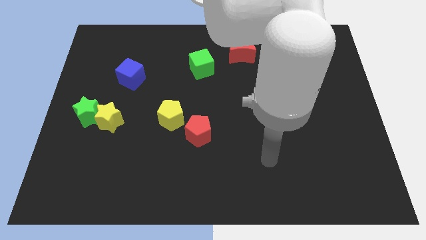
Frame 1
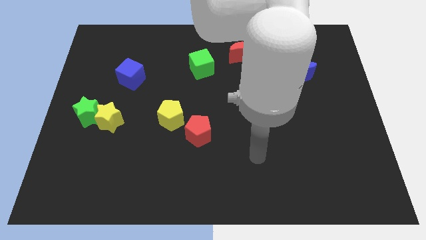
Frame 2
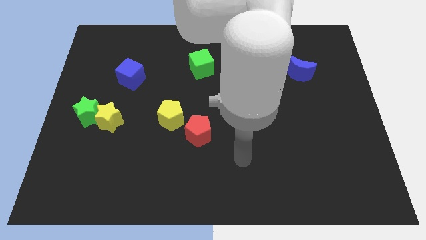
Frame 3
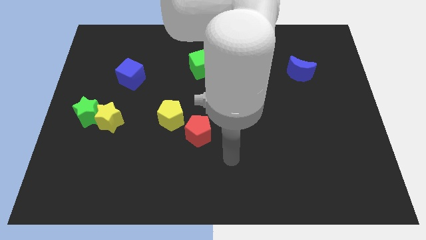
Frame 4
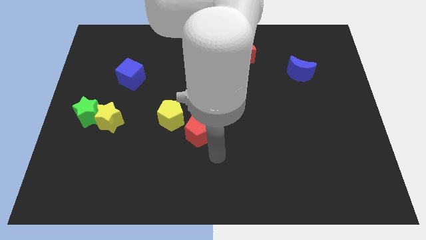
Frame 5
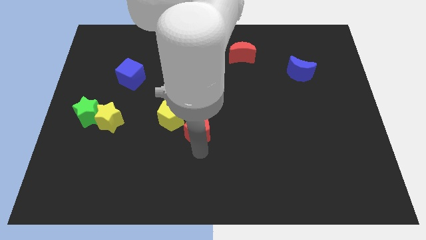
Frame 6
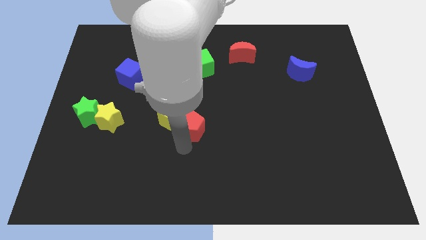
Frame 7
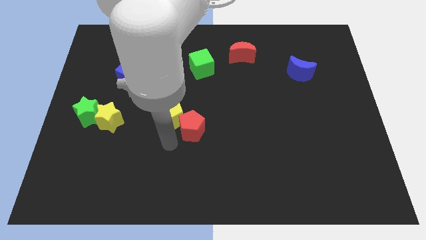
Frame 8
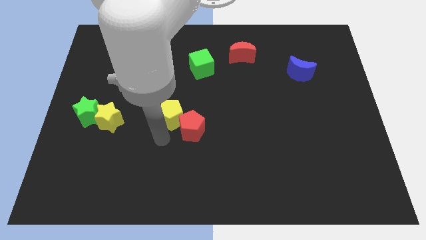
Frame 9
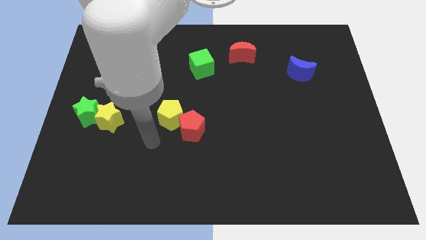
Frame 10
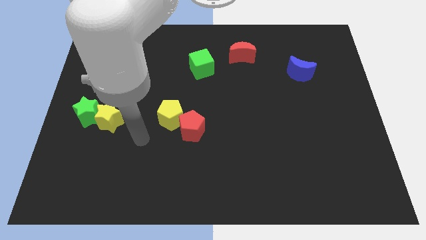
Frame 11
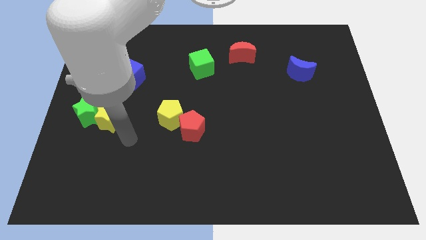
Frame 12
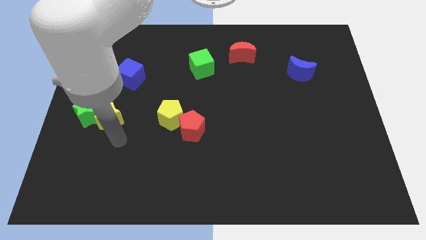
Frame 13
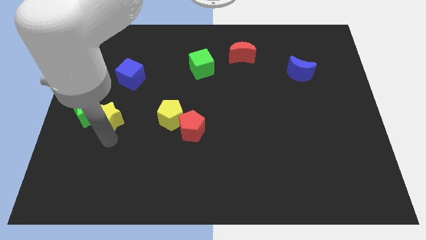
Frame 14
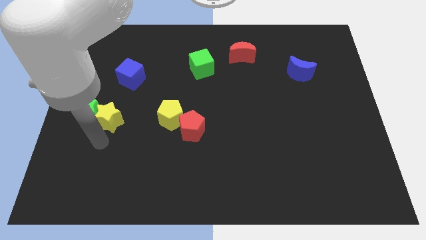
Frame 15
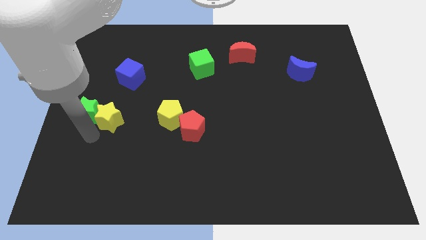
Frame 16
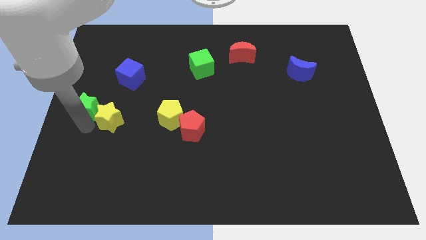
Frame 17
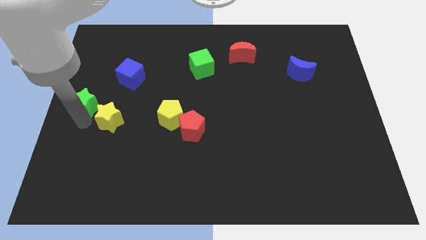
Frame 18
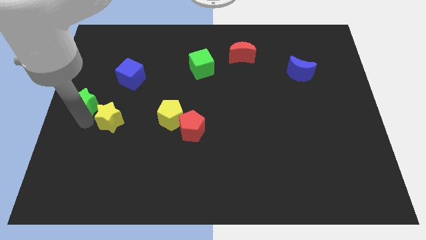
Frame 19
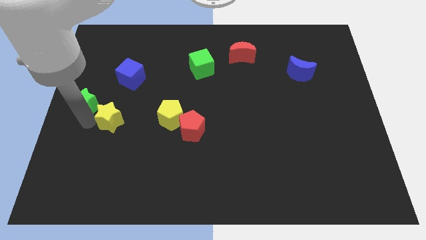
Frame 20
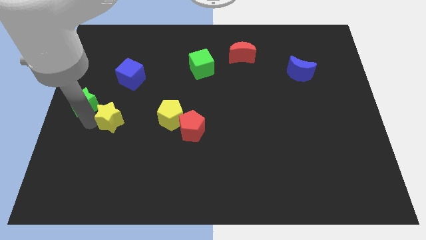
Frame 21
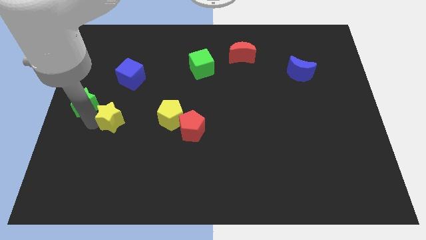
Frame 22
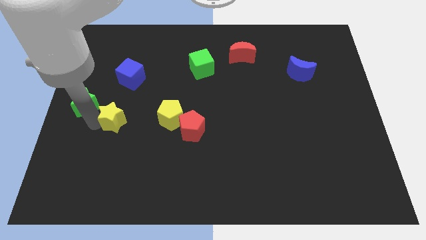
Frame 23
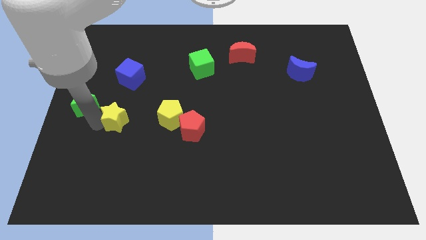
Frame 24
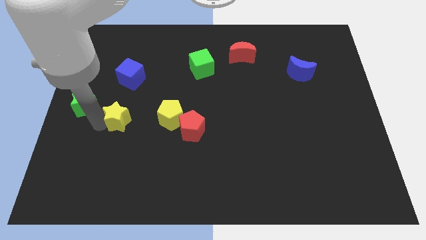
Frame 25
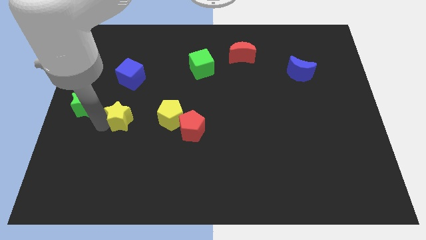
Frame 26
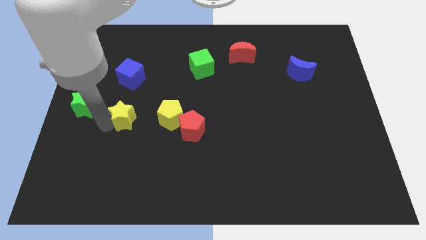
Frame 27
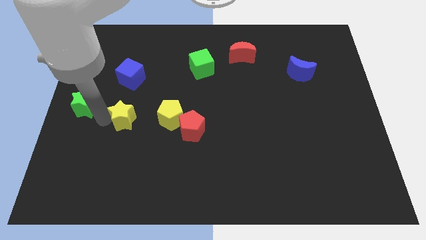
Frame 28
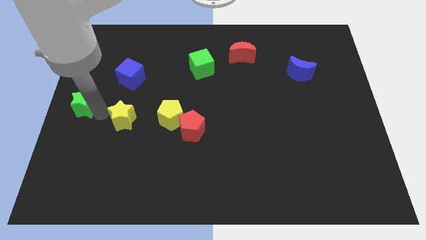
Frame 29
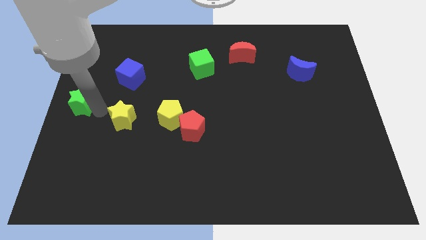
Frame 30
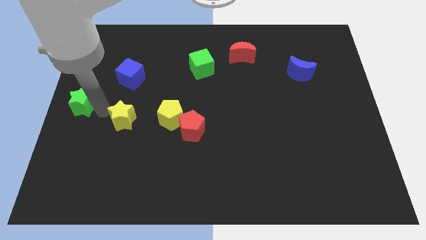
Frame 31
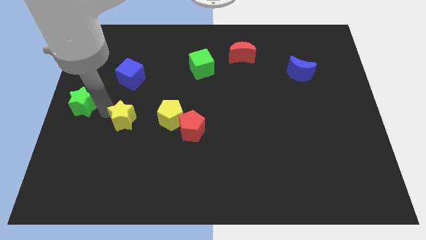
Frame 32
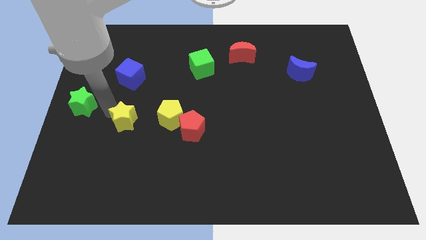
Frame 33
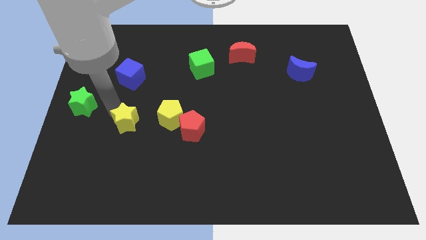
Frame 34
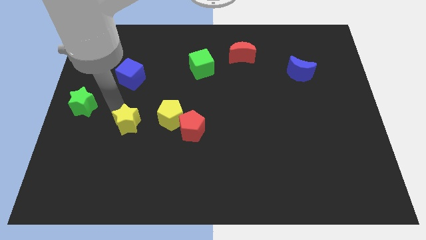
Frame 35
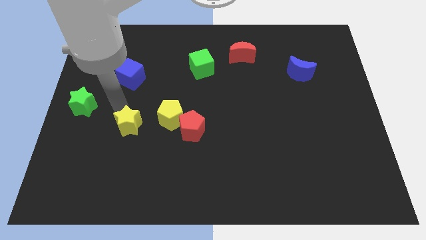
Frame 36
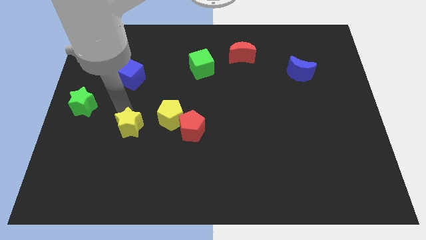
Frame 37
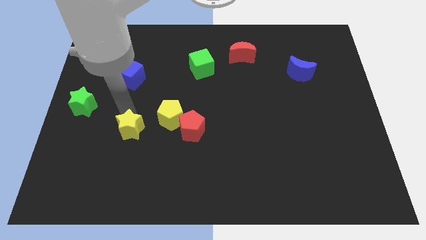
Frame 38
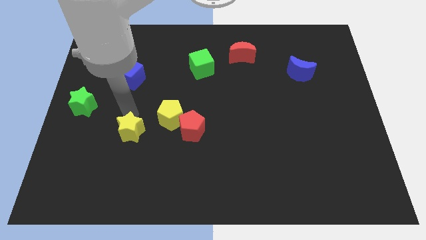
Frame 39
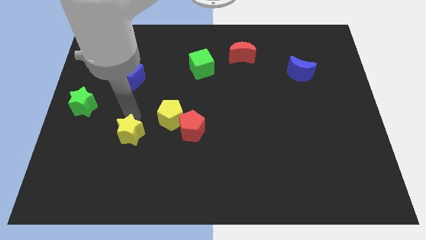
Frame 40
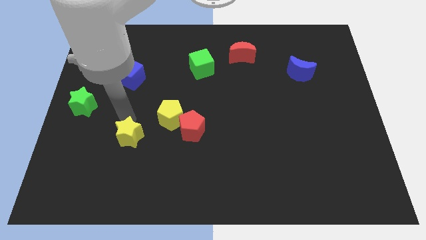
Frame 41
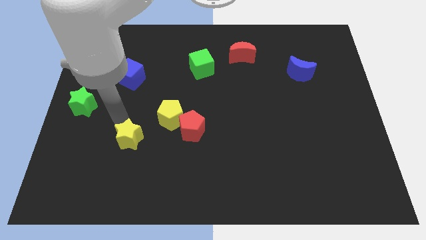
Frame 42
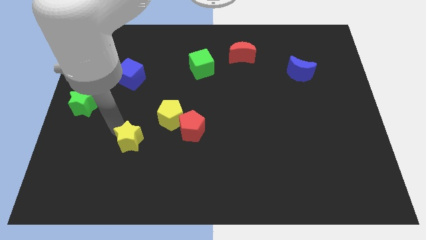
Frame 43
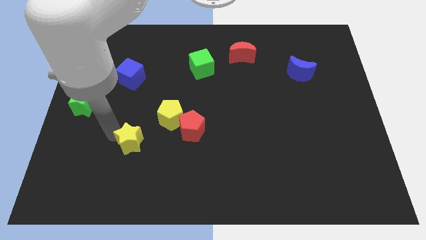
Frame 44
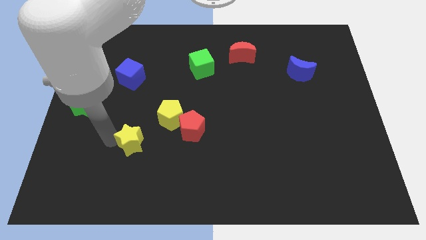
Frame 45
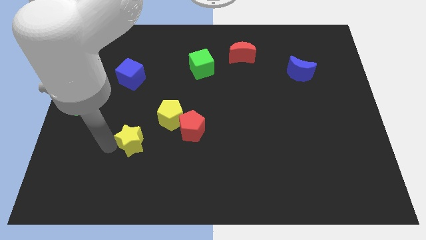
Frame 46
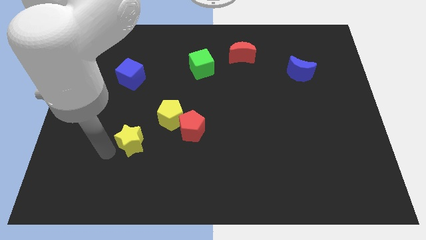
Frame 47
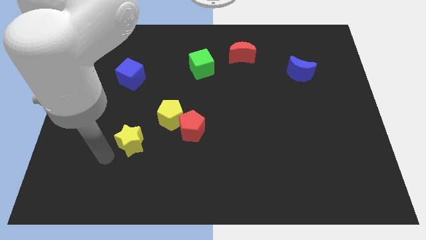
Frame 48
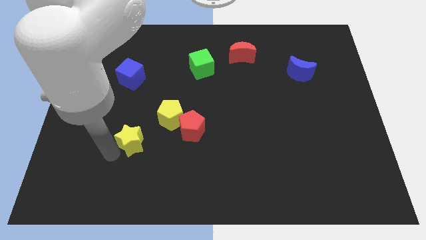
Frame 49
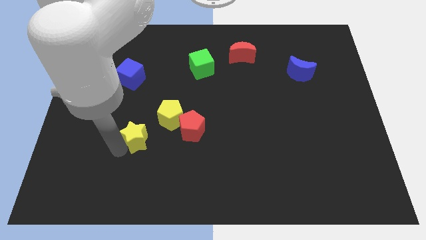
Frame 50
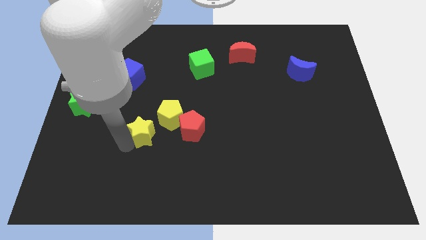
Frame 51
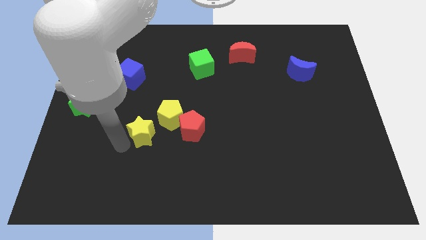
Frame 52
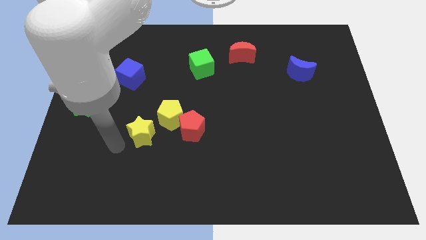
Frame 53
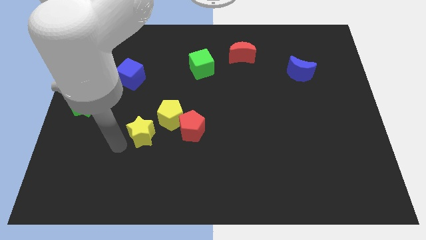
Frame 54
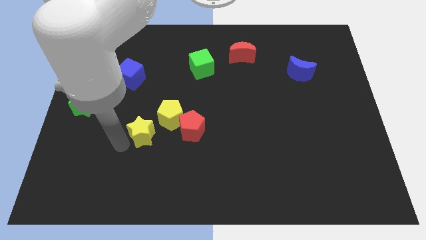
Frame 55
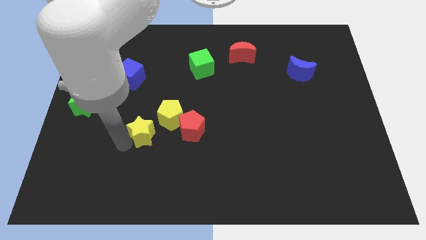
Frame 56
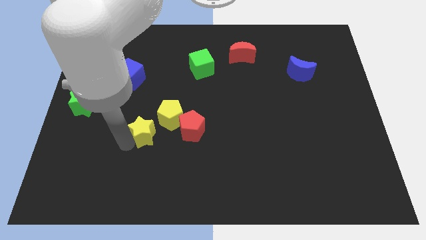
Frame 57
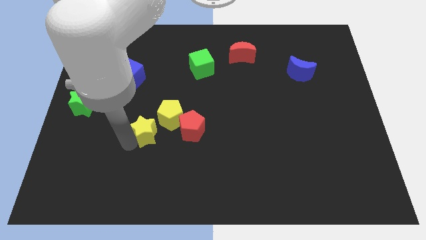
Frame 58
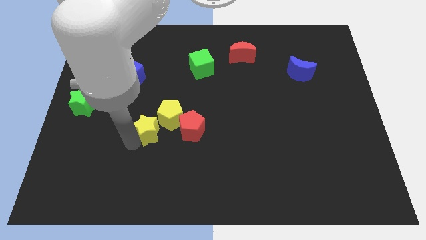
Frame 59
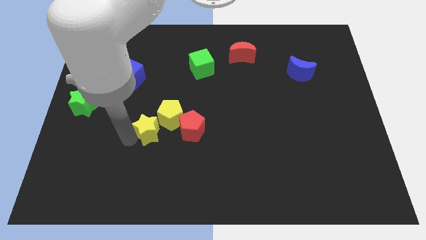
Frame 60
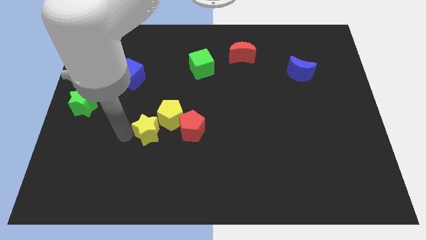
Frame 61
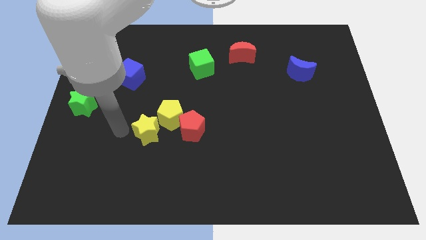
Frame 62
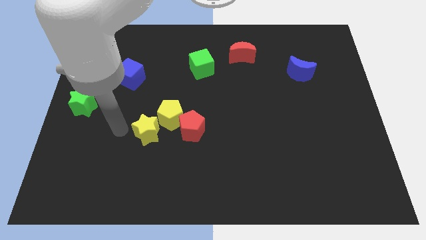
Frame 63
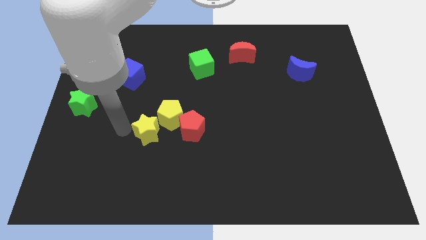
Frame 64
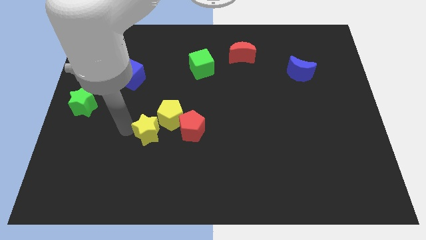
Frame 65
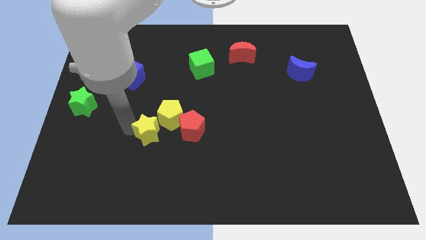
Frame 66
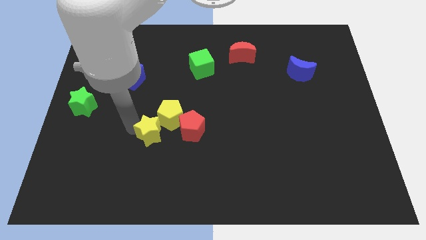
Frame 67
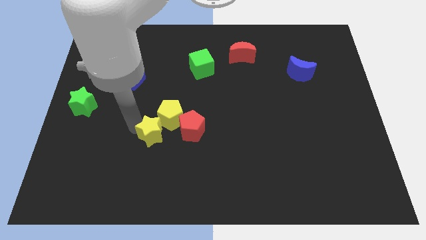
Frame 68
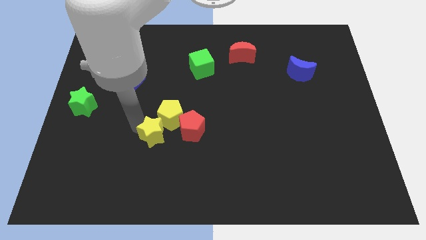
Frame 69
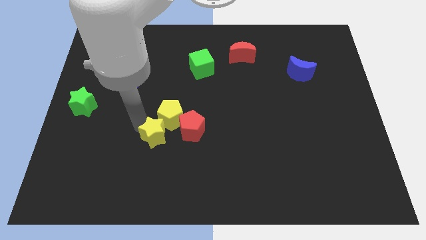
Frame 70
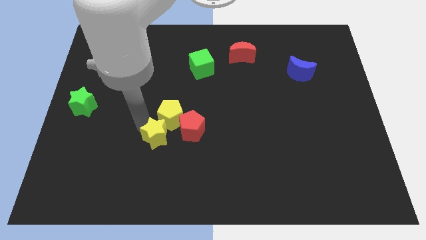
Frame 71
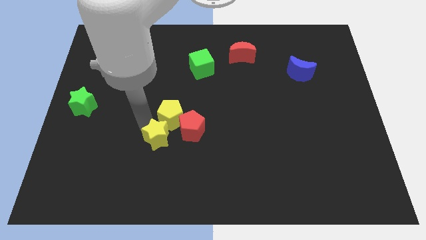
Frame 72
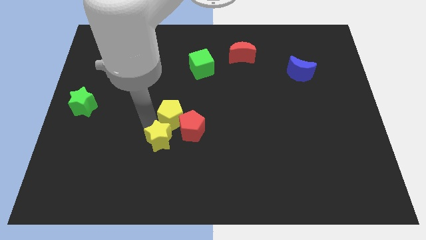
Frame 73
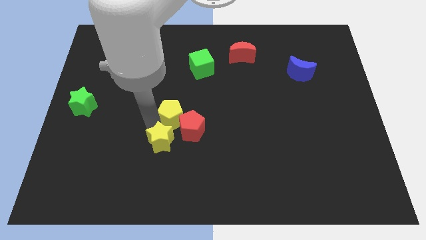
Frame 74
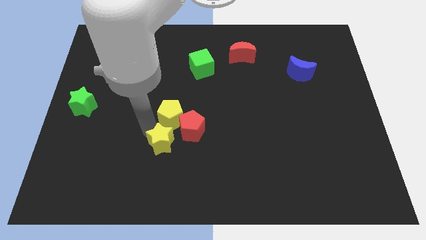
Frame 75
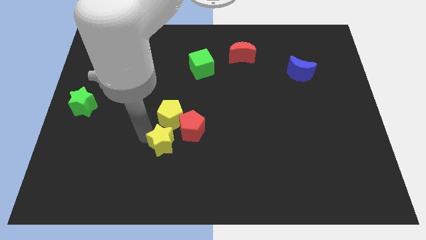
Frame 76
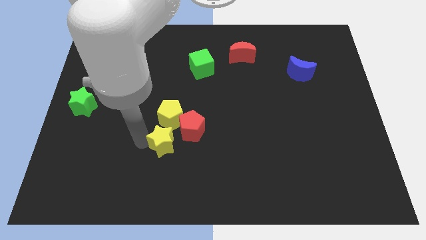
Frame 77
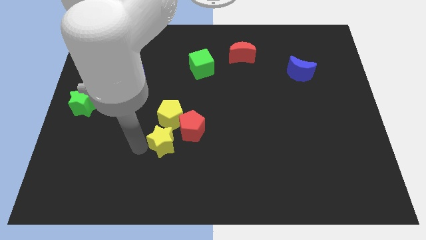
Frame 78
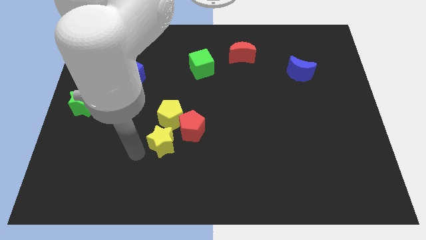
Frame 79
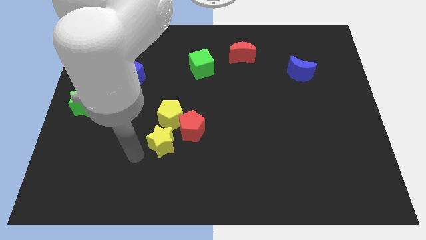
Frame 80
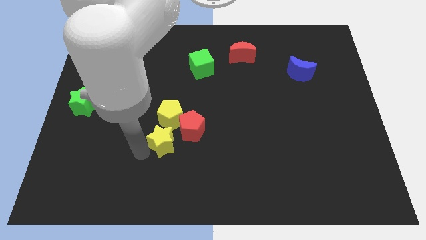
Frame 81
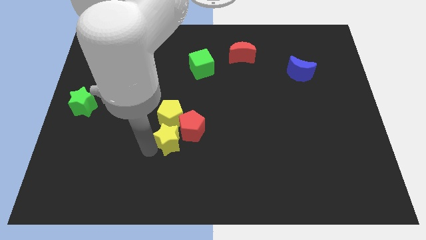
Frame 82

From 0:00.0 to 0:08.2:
move the yellow star towards the red pentagon
